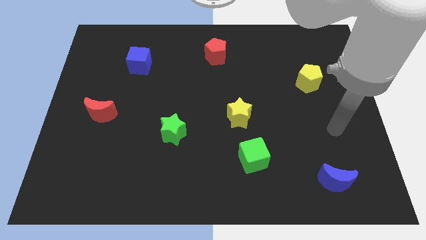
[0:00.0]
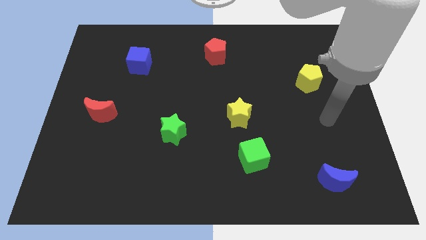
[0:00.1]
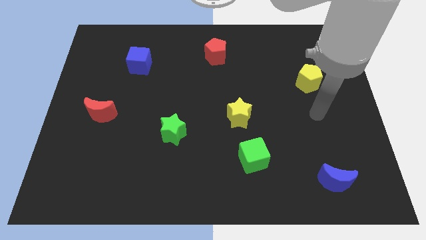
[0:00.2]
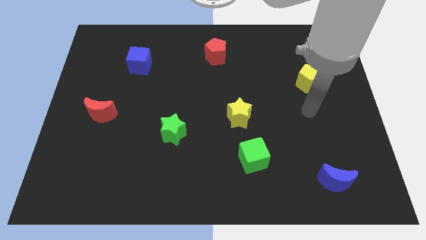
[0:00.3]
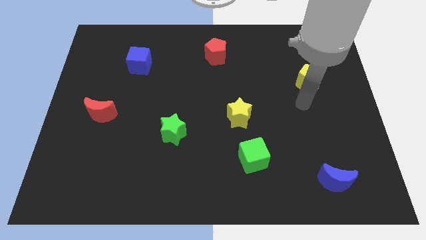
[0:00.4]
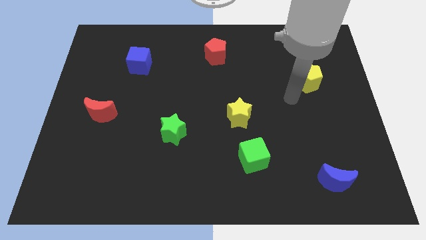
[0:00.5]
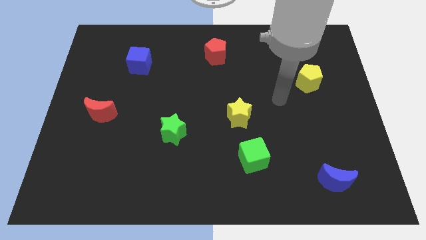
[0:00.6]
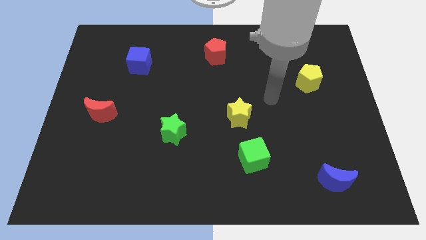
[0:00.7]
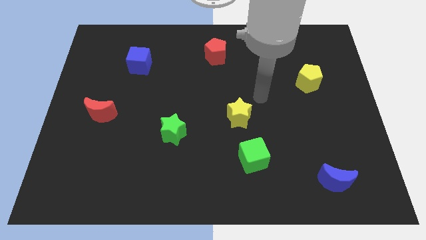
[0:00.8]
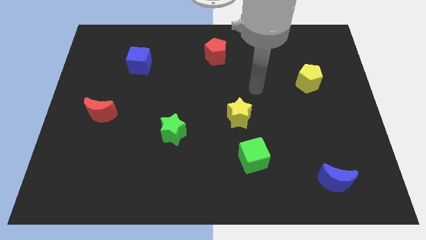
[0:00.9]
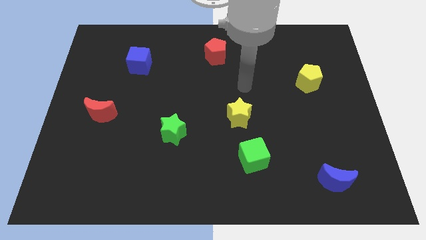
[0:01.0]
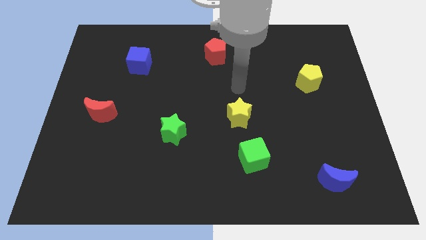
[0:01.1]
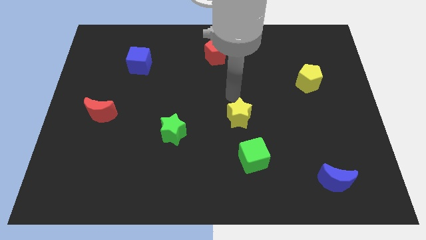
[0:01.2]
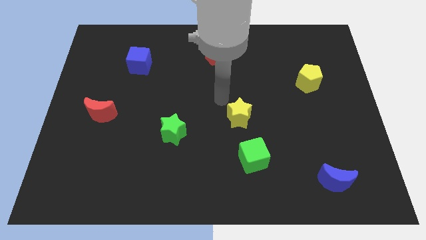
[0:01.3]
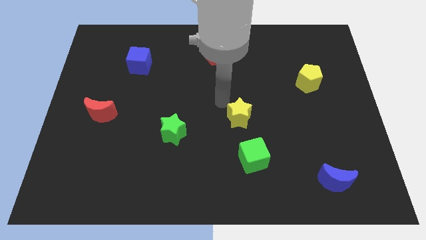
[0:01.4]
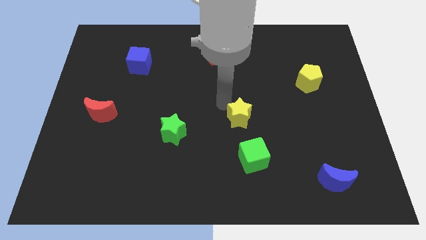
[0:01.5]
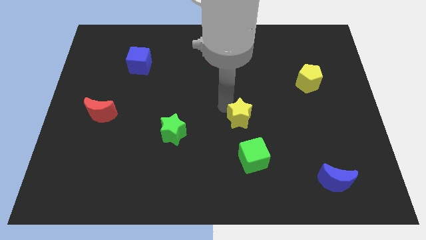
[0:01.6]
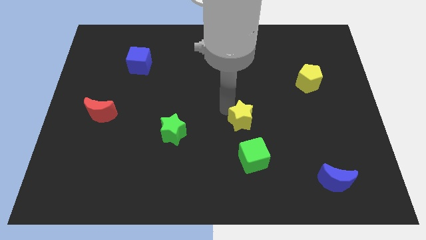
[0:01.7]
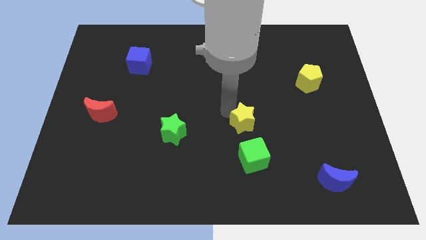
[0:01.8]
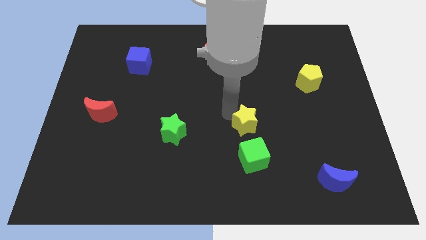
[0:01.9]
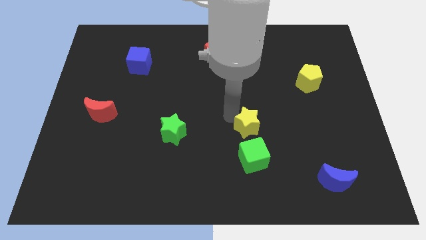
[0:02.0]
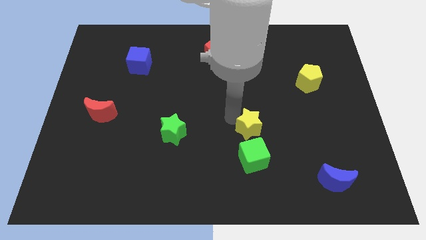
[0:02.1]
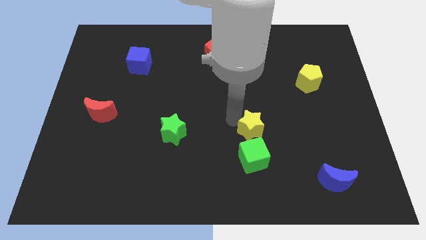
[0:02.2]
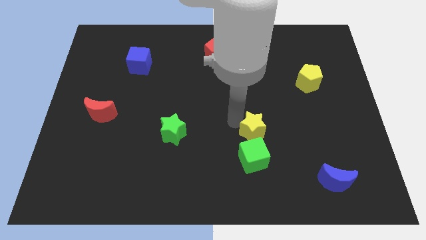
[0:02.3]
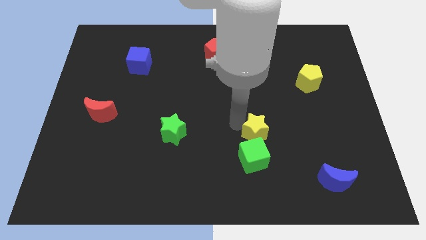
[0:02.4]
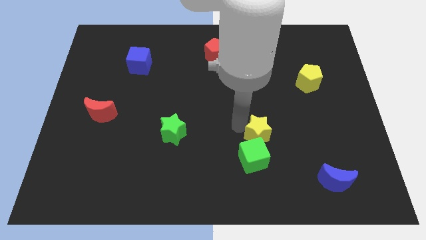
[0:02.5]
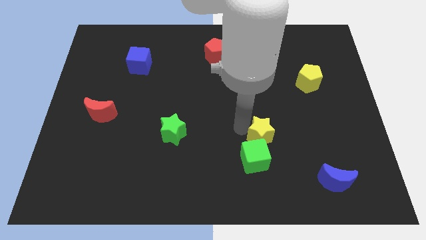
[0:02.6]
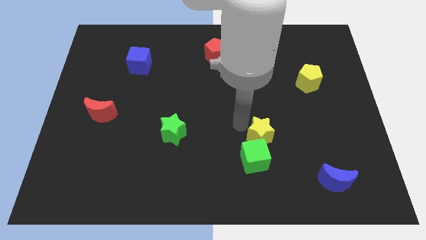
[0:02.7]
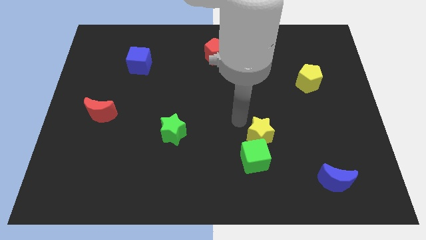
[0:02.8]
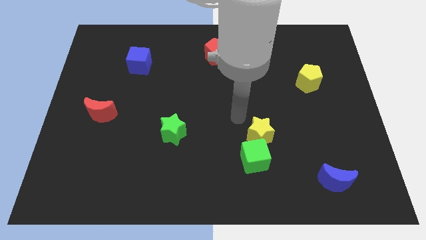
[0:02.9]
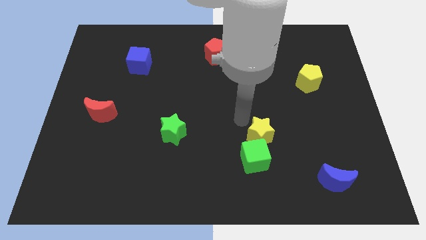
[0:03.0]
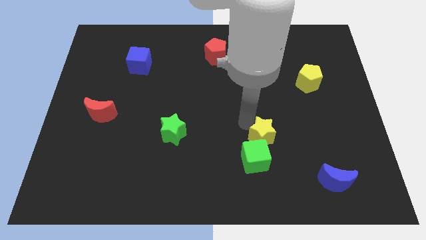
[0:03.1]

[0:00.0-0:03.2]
slide the yellow star slightly diagonally downwards and right

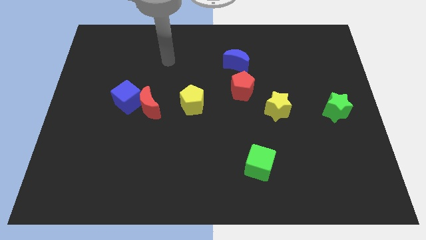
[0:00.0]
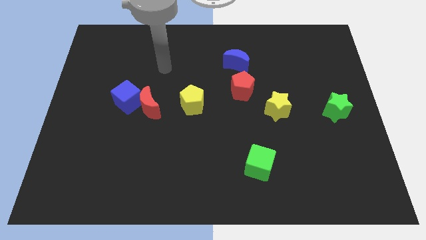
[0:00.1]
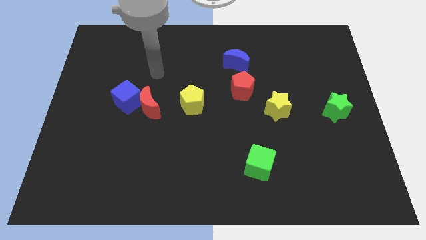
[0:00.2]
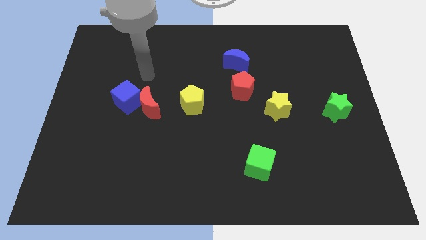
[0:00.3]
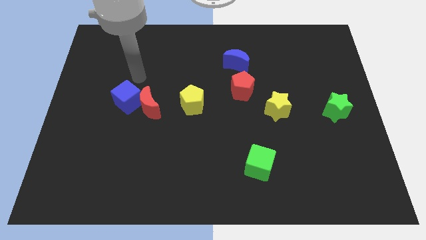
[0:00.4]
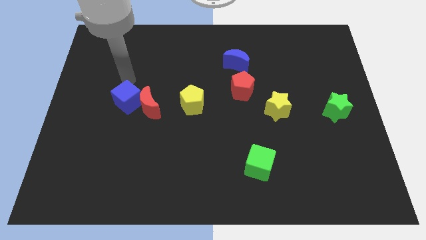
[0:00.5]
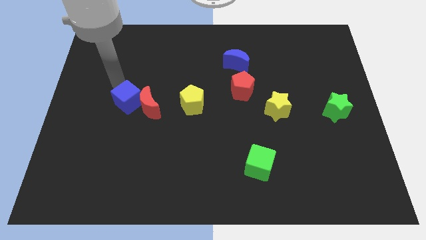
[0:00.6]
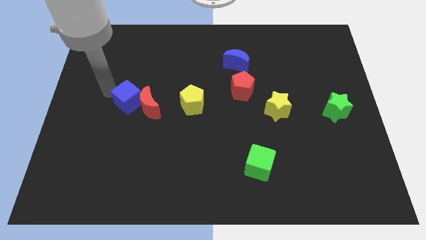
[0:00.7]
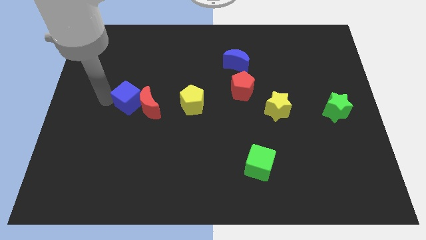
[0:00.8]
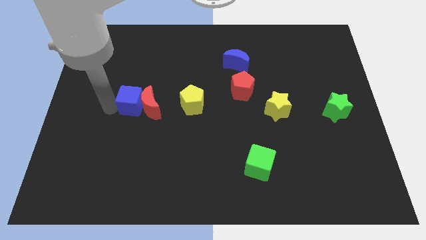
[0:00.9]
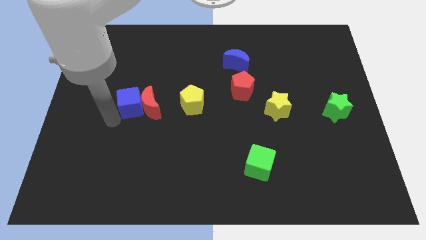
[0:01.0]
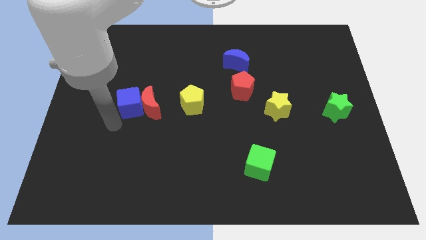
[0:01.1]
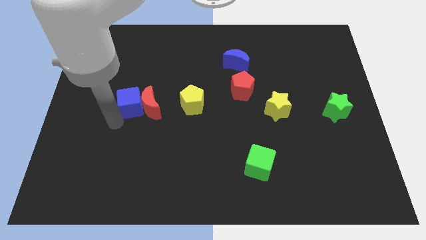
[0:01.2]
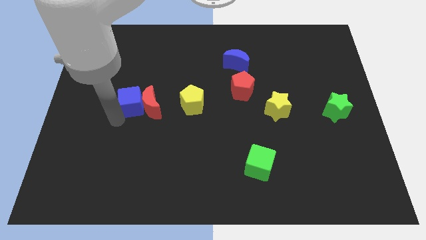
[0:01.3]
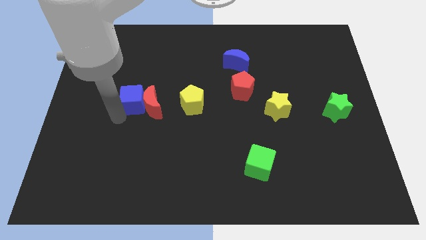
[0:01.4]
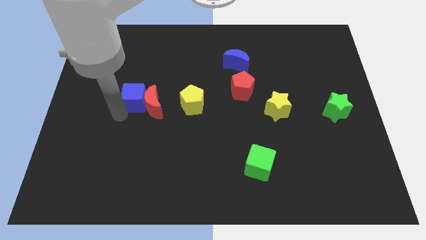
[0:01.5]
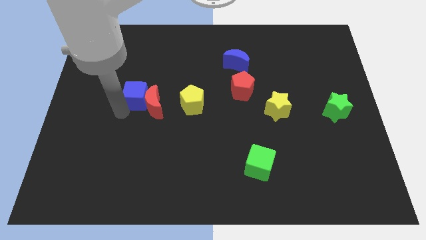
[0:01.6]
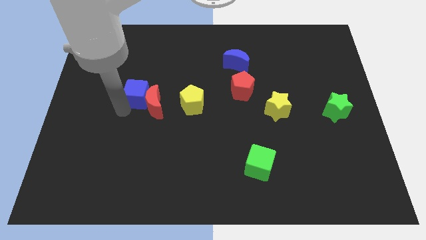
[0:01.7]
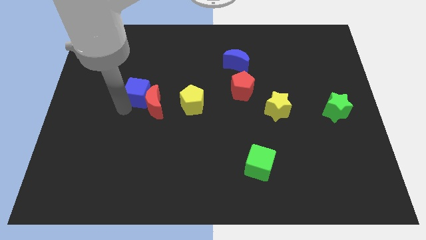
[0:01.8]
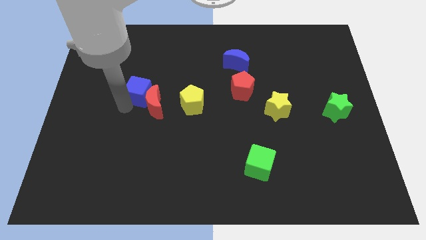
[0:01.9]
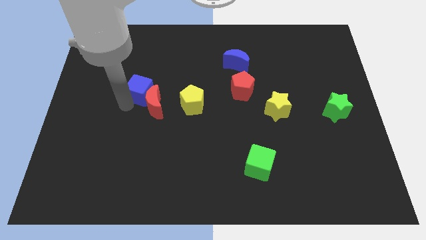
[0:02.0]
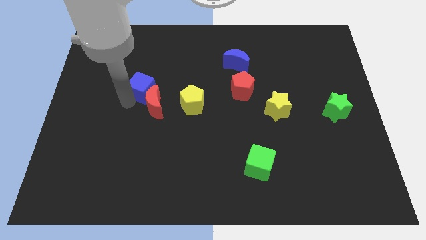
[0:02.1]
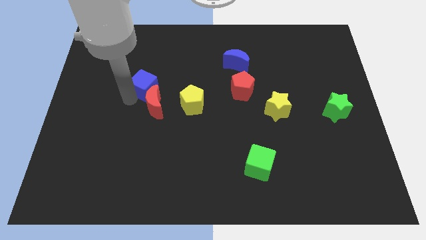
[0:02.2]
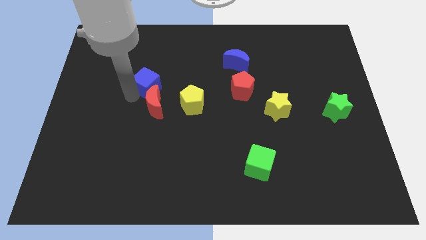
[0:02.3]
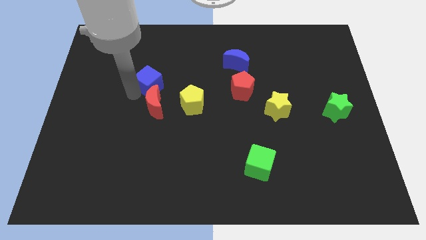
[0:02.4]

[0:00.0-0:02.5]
push the blue cube upwards and to the right a bit

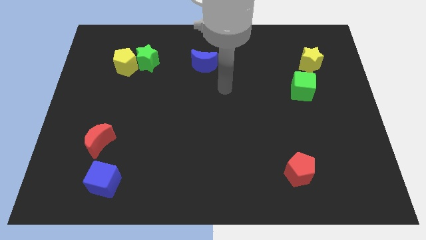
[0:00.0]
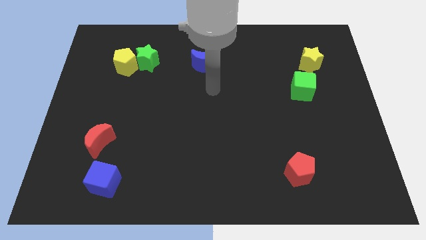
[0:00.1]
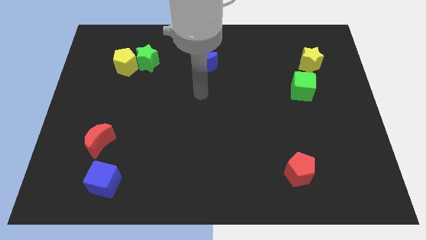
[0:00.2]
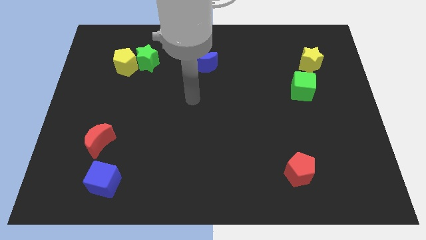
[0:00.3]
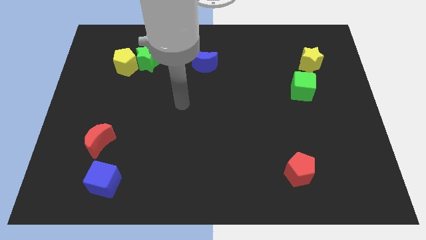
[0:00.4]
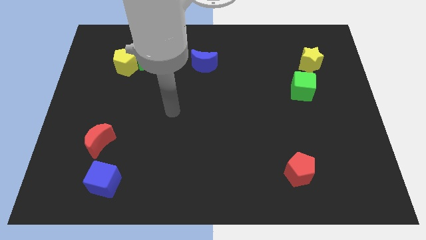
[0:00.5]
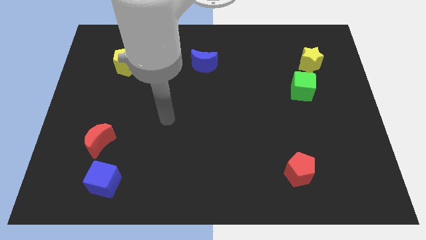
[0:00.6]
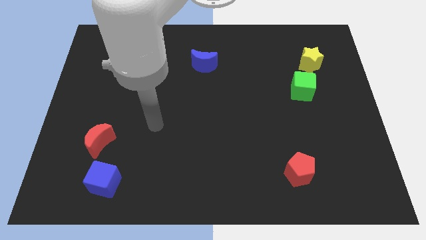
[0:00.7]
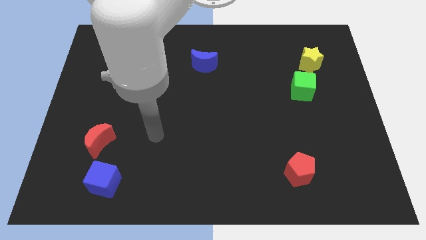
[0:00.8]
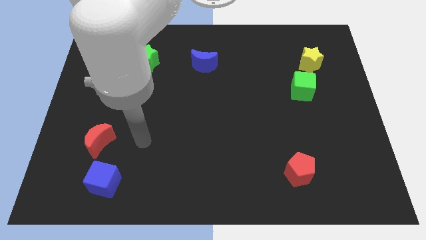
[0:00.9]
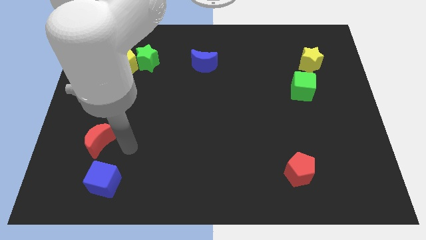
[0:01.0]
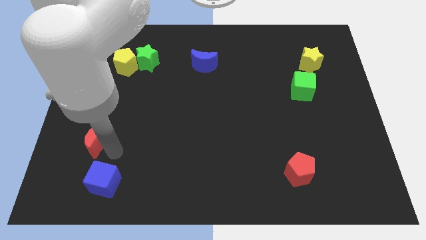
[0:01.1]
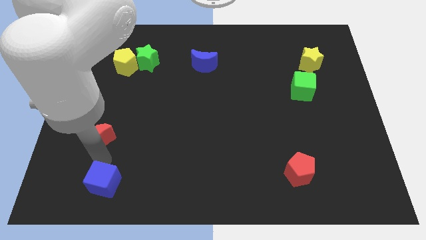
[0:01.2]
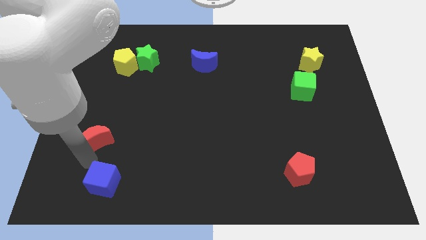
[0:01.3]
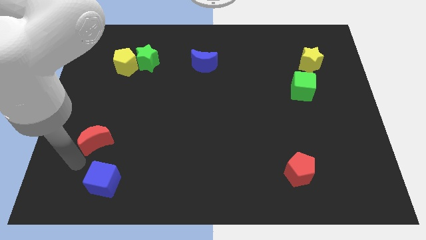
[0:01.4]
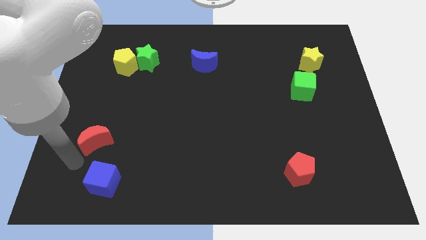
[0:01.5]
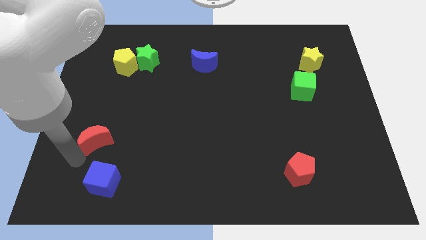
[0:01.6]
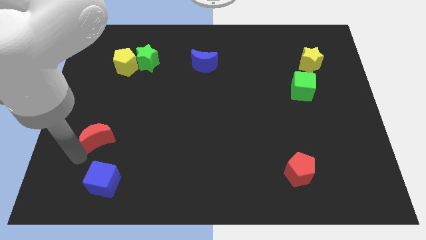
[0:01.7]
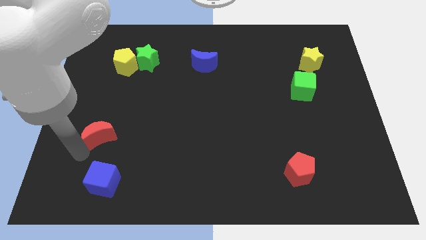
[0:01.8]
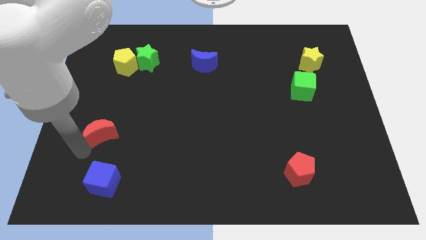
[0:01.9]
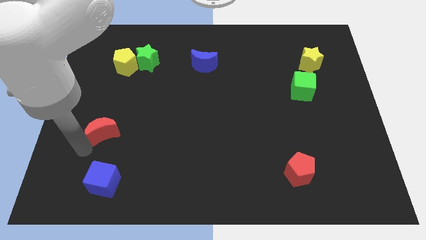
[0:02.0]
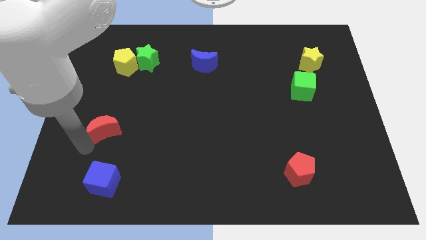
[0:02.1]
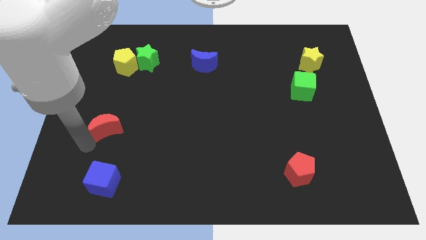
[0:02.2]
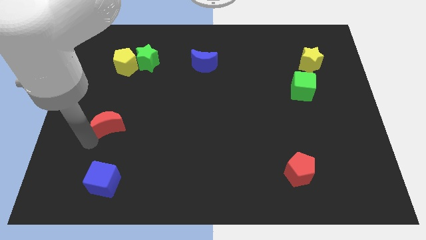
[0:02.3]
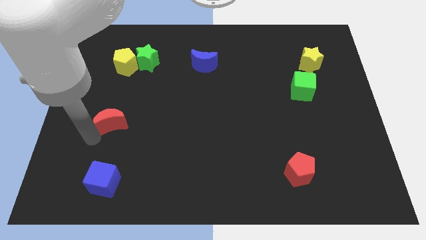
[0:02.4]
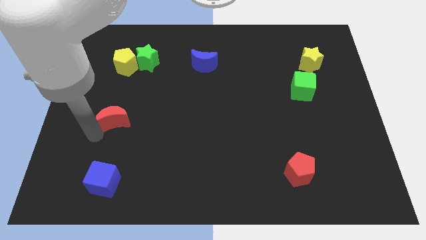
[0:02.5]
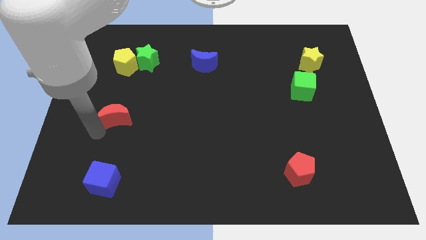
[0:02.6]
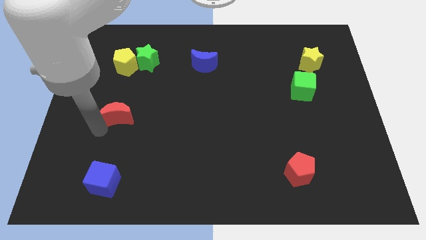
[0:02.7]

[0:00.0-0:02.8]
slightly push the red moon up and then to the right
